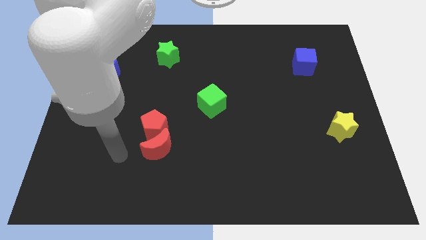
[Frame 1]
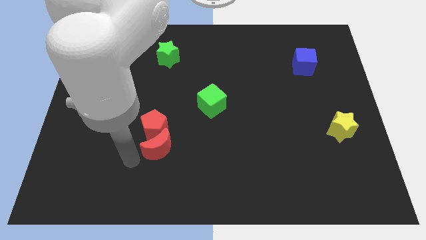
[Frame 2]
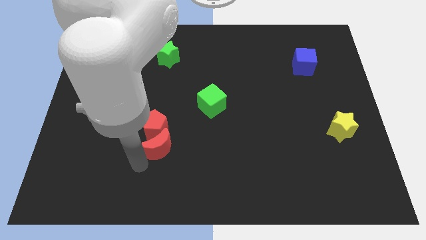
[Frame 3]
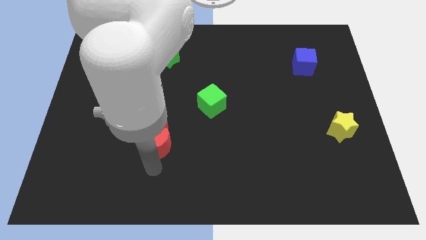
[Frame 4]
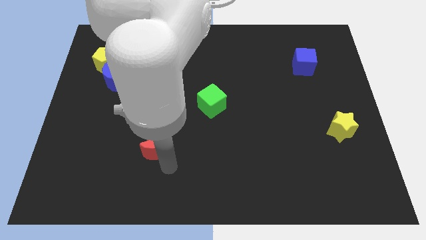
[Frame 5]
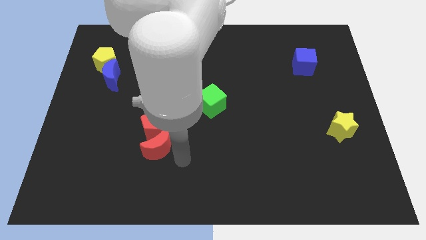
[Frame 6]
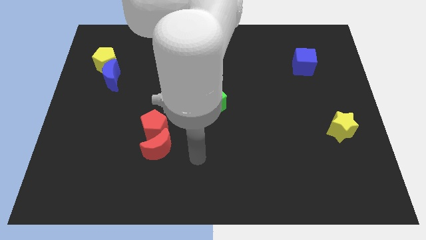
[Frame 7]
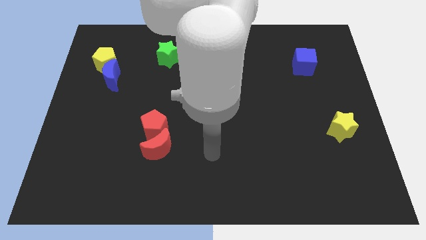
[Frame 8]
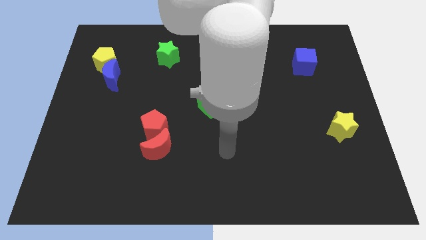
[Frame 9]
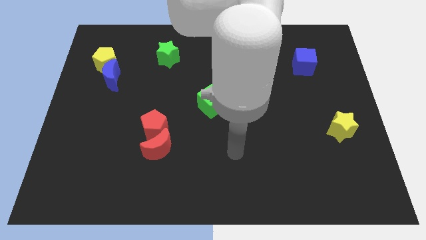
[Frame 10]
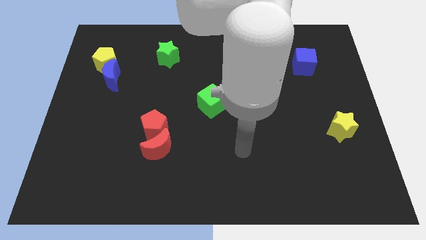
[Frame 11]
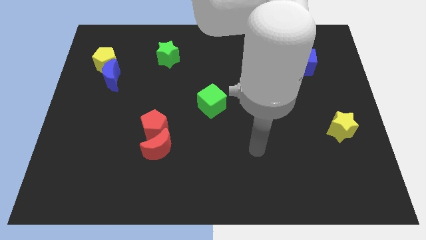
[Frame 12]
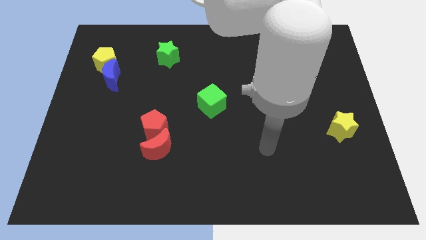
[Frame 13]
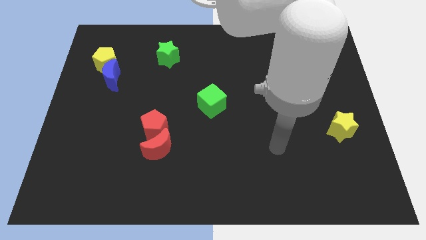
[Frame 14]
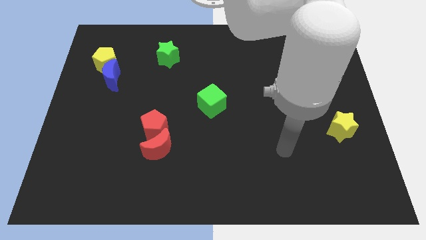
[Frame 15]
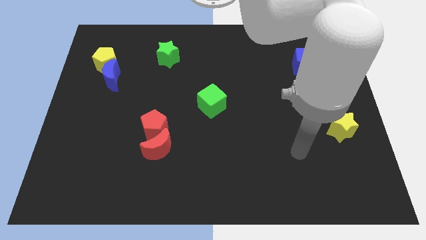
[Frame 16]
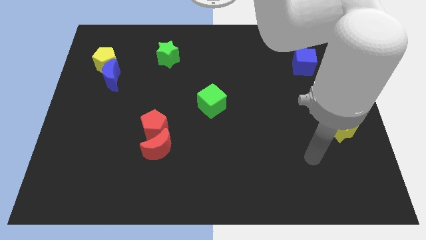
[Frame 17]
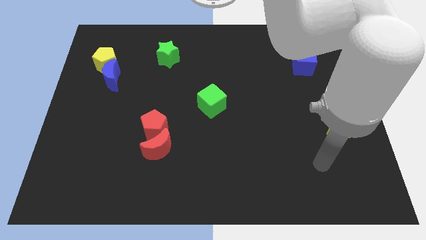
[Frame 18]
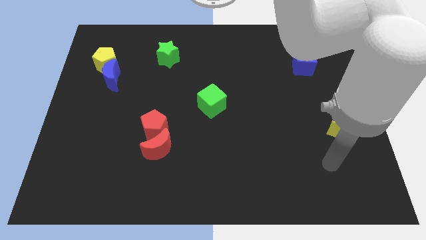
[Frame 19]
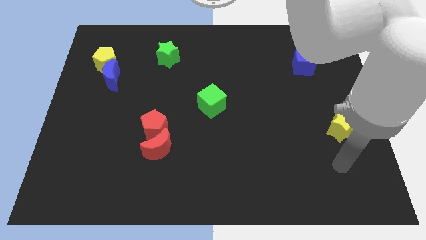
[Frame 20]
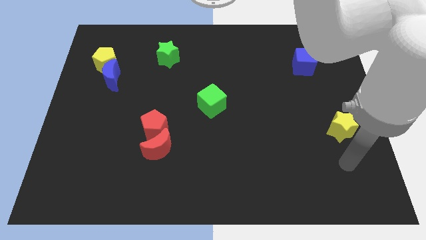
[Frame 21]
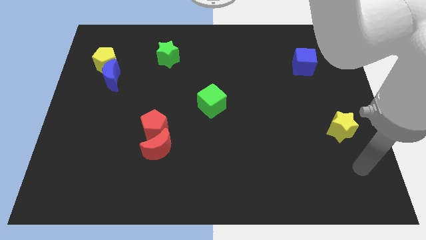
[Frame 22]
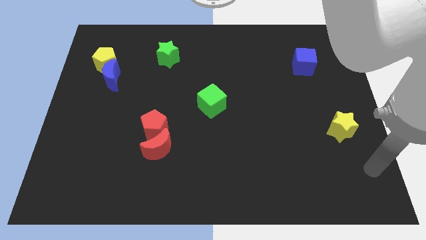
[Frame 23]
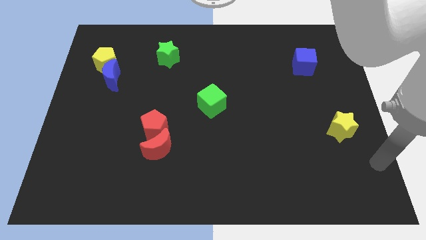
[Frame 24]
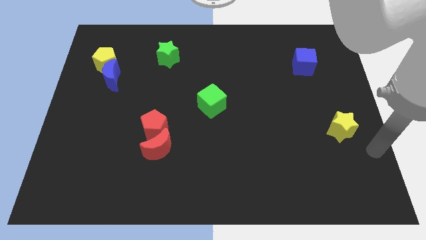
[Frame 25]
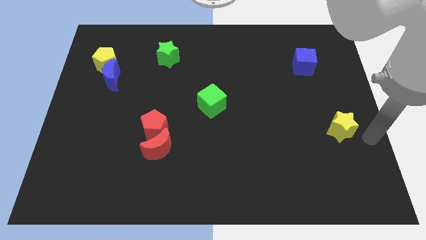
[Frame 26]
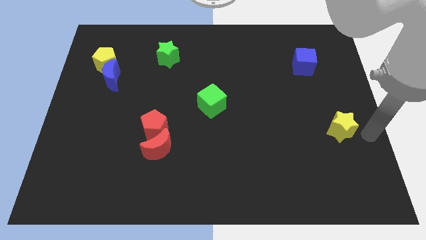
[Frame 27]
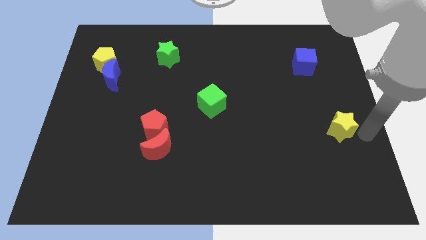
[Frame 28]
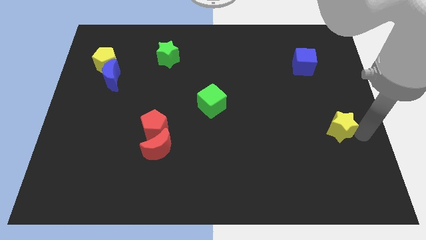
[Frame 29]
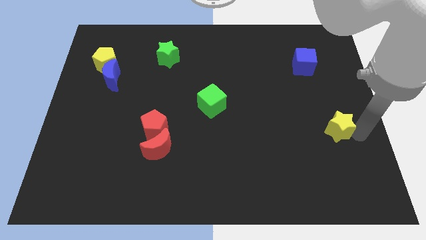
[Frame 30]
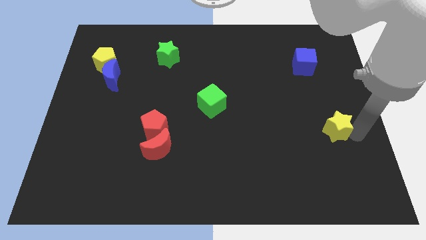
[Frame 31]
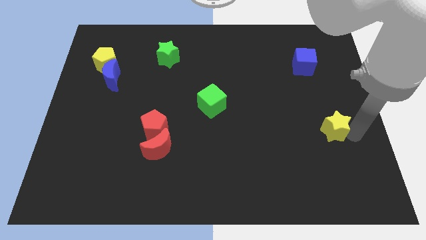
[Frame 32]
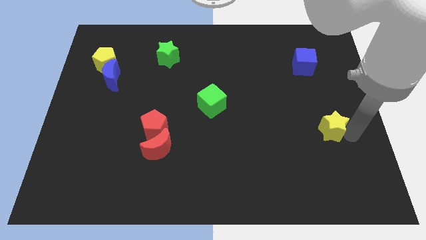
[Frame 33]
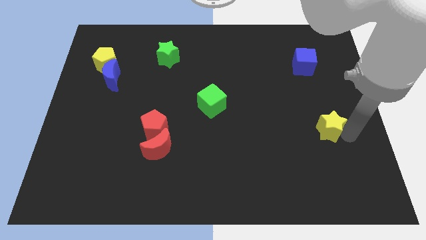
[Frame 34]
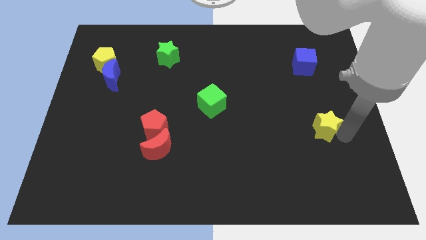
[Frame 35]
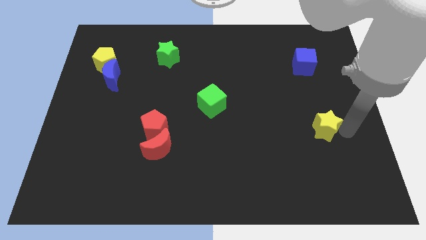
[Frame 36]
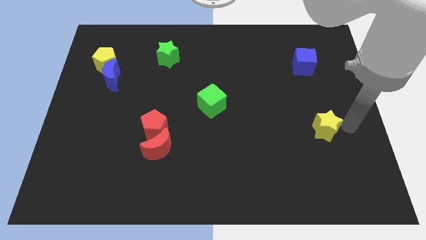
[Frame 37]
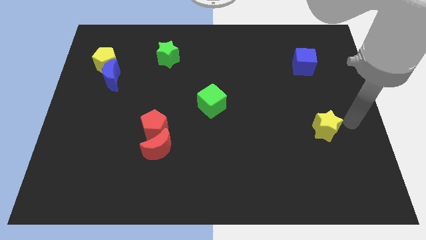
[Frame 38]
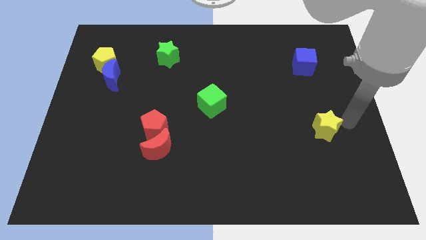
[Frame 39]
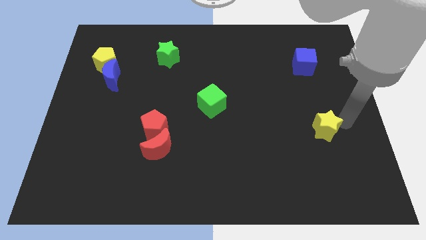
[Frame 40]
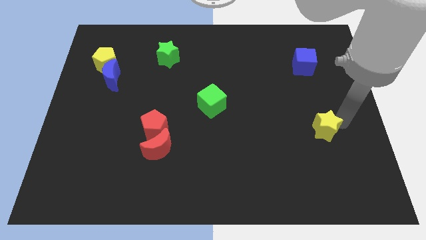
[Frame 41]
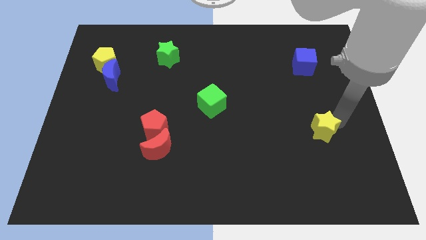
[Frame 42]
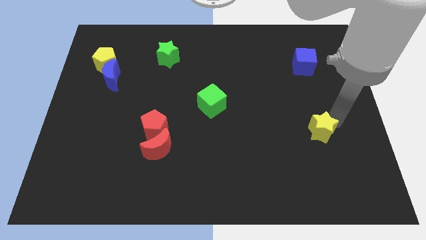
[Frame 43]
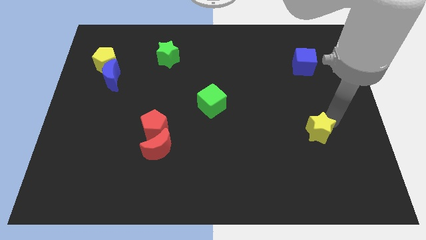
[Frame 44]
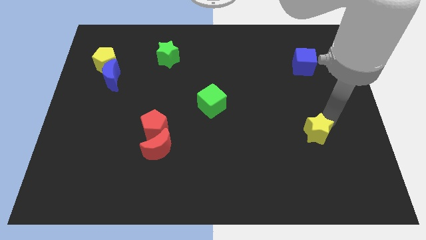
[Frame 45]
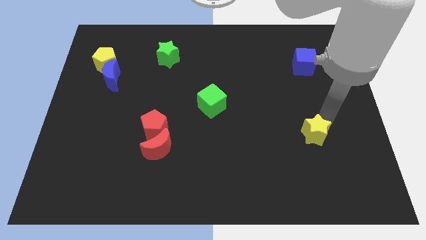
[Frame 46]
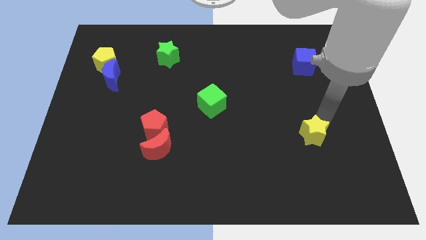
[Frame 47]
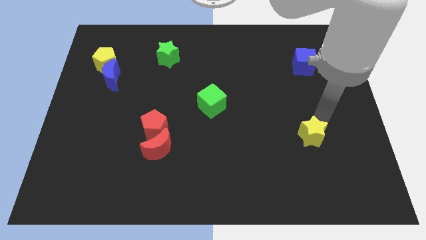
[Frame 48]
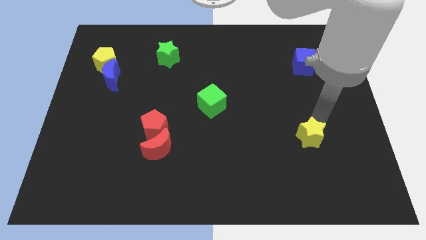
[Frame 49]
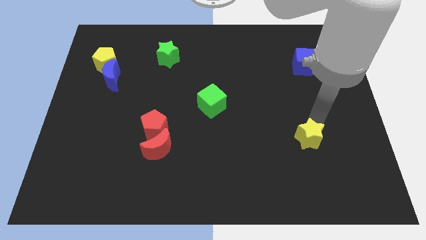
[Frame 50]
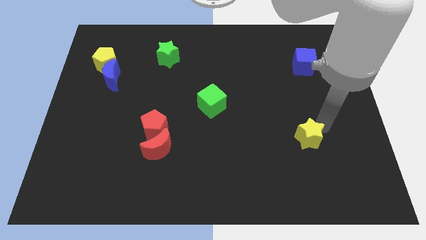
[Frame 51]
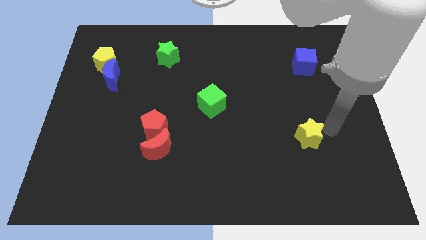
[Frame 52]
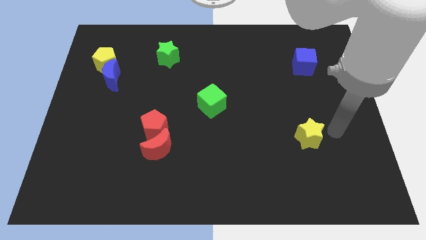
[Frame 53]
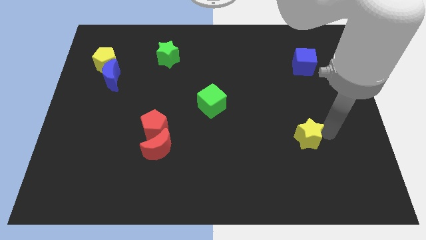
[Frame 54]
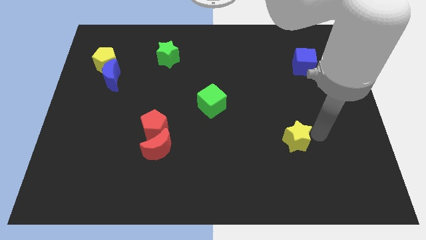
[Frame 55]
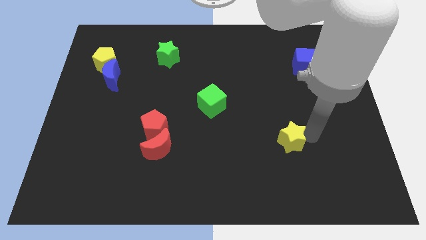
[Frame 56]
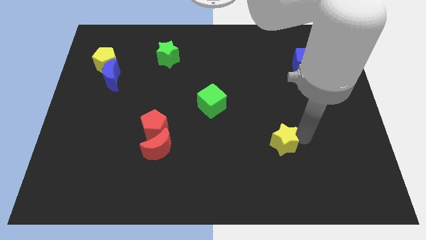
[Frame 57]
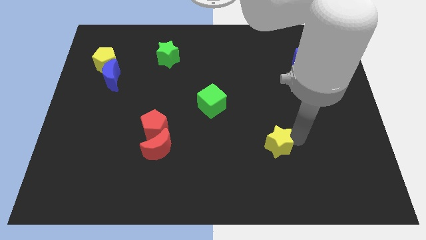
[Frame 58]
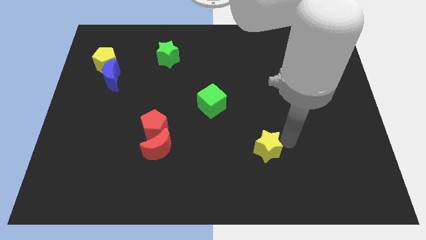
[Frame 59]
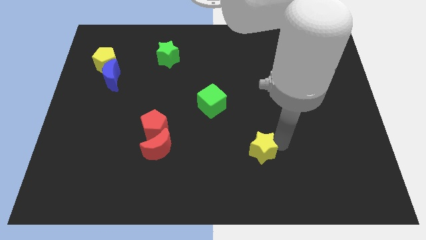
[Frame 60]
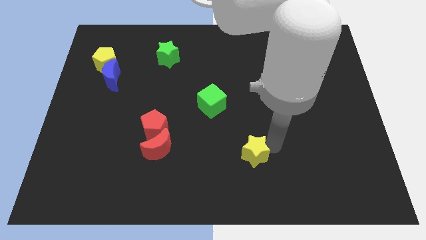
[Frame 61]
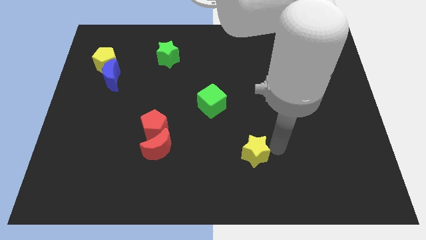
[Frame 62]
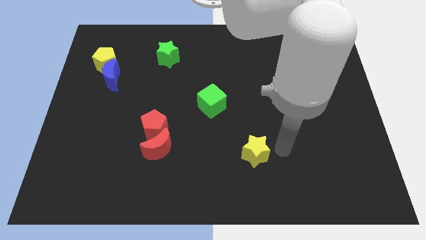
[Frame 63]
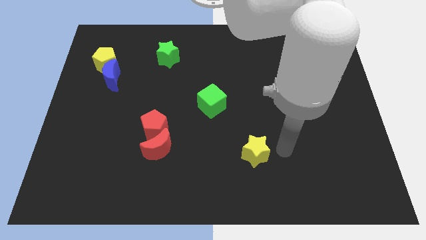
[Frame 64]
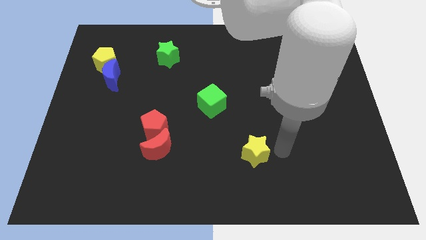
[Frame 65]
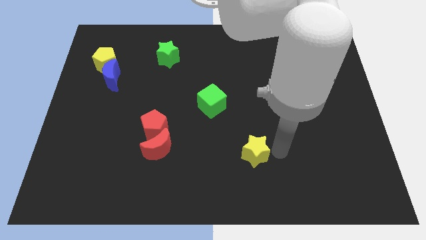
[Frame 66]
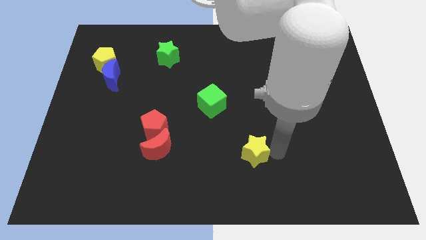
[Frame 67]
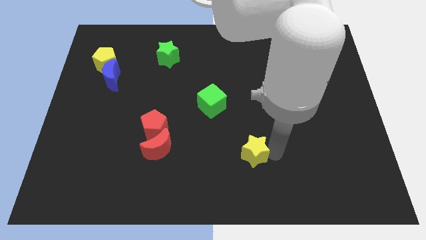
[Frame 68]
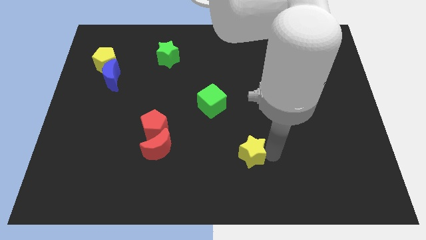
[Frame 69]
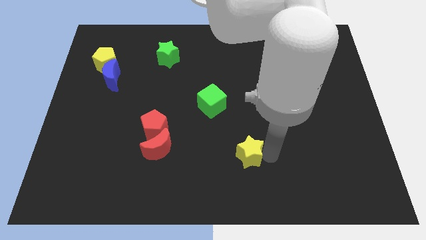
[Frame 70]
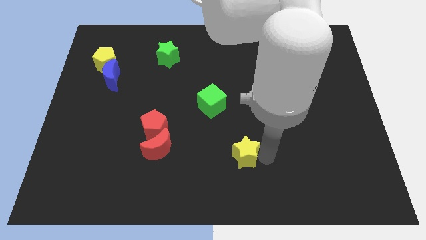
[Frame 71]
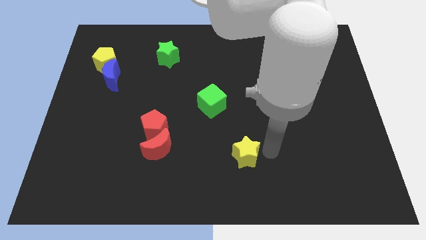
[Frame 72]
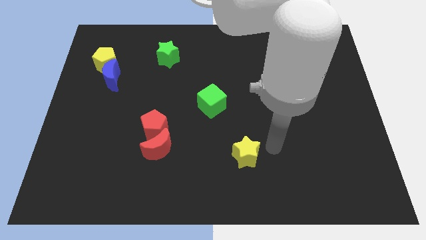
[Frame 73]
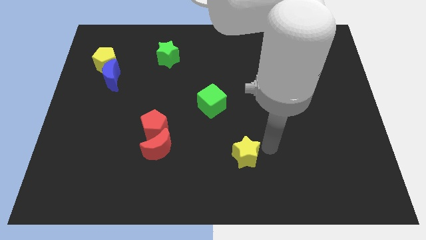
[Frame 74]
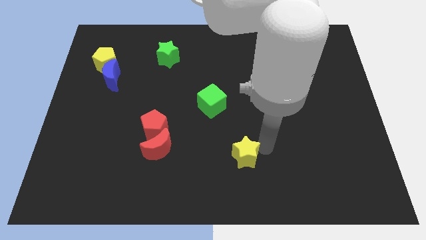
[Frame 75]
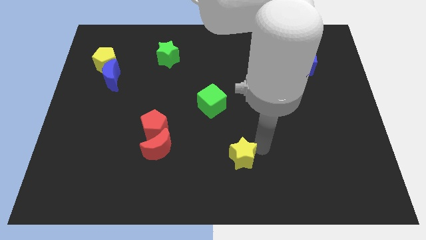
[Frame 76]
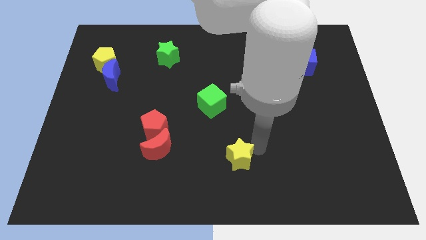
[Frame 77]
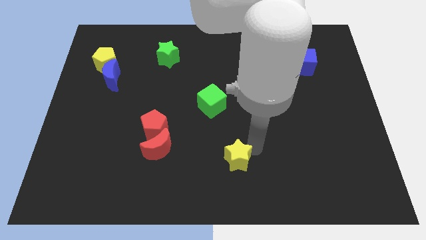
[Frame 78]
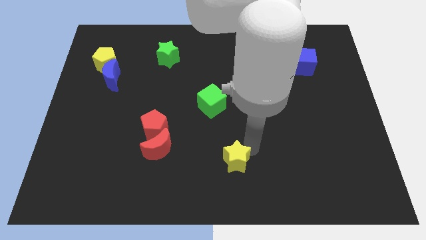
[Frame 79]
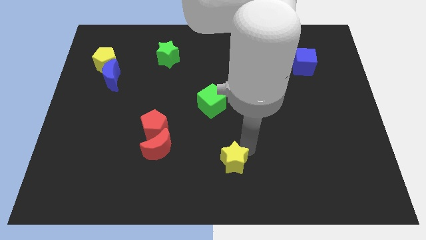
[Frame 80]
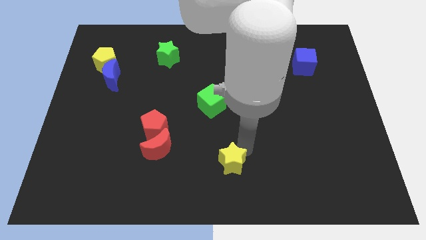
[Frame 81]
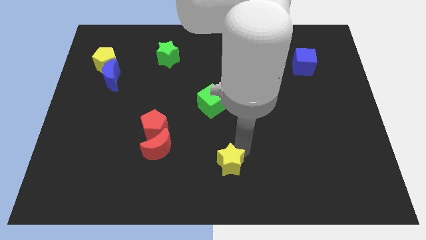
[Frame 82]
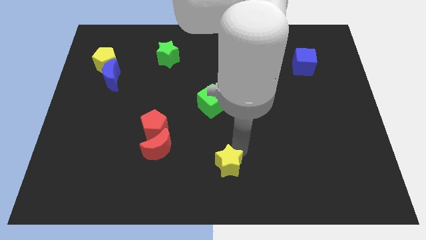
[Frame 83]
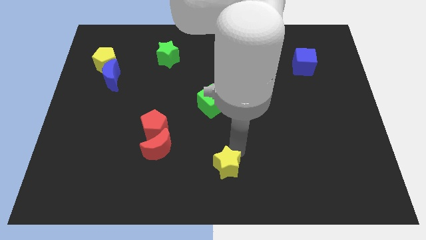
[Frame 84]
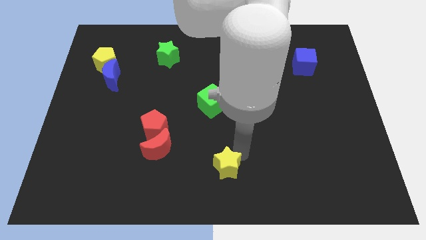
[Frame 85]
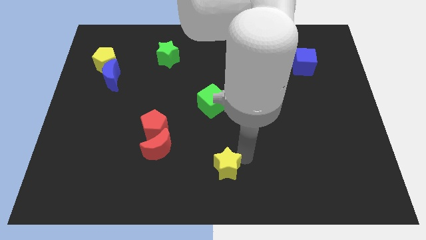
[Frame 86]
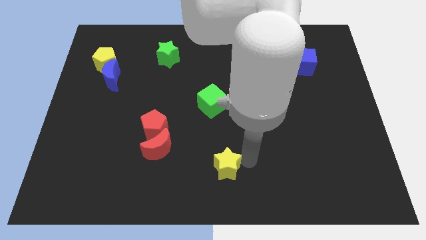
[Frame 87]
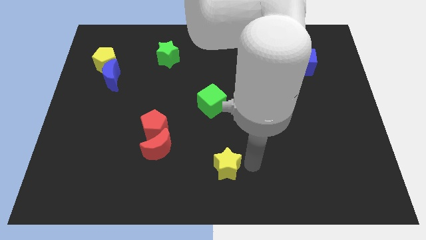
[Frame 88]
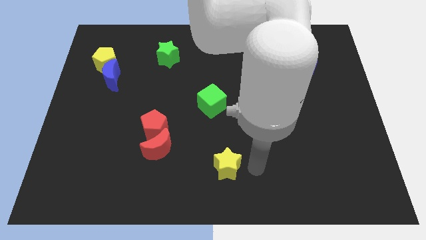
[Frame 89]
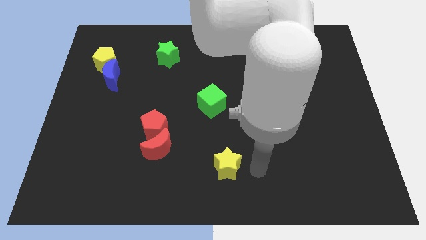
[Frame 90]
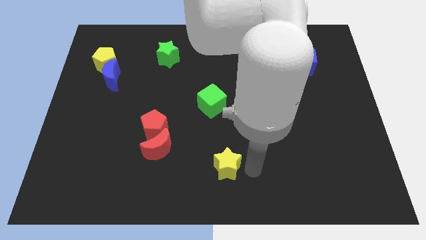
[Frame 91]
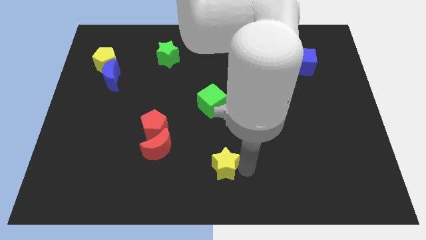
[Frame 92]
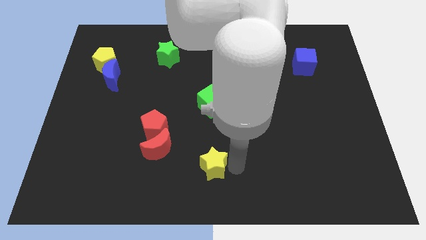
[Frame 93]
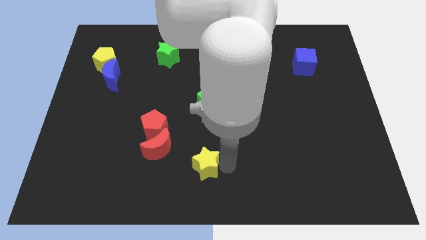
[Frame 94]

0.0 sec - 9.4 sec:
slide the yellow star to the bottom right of the red moon
